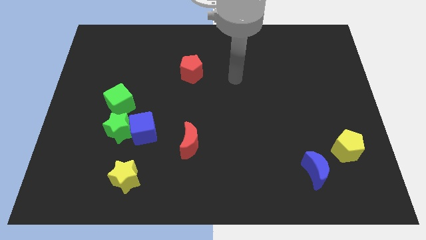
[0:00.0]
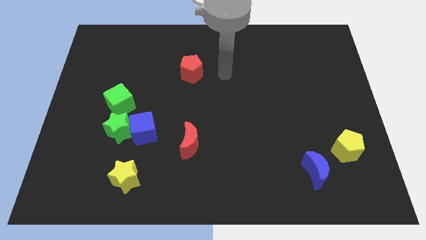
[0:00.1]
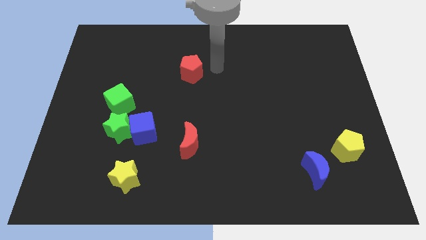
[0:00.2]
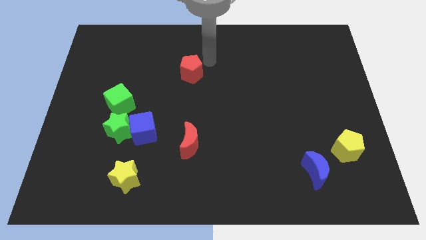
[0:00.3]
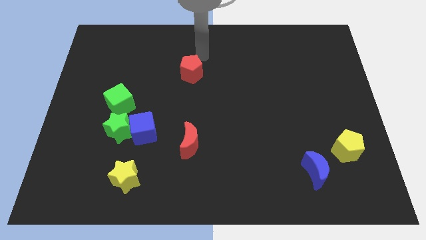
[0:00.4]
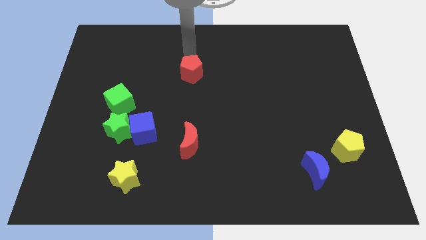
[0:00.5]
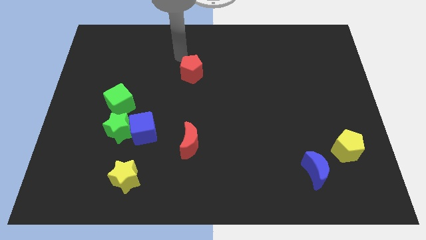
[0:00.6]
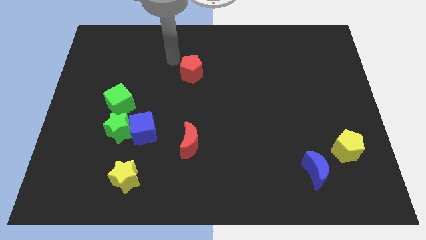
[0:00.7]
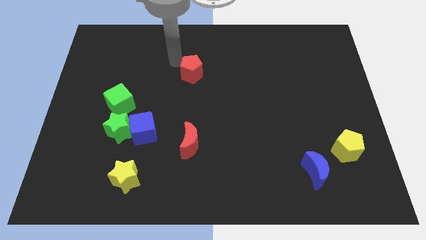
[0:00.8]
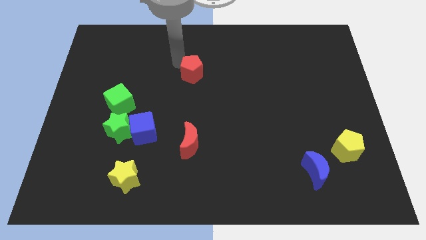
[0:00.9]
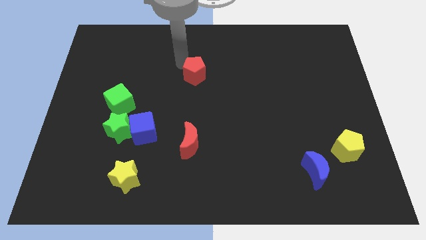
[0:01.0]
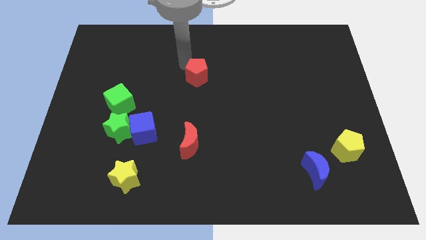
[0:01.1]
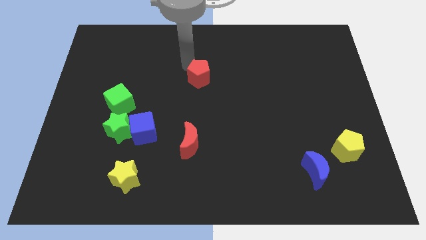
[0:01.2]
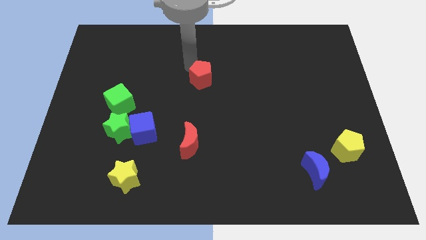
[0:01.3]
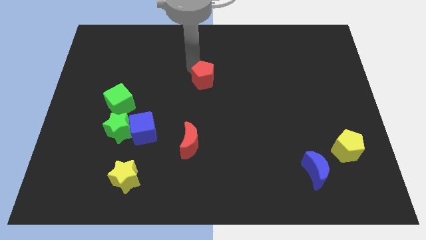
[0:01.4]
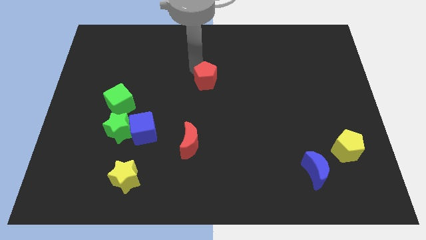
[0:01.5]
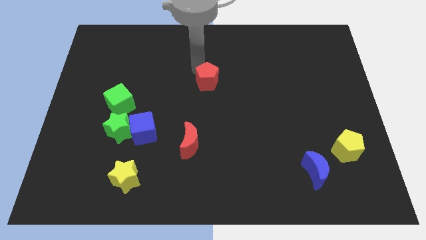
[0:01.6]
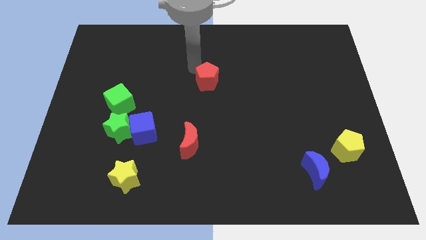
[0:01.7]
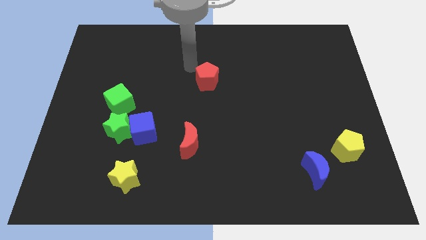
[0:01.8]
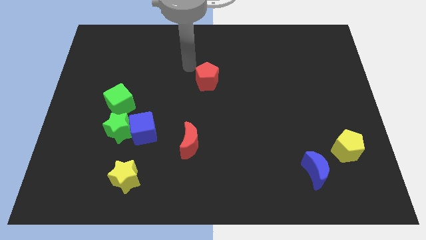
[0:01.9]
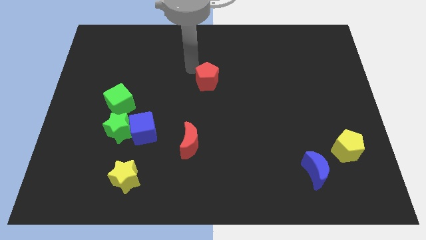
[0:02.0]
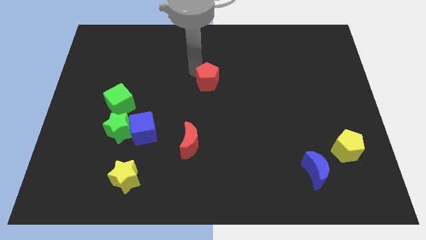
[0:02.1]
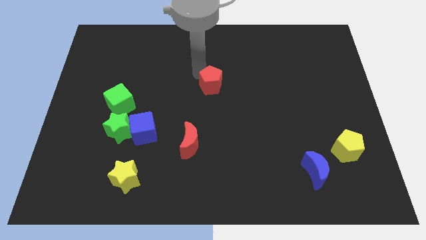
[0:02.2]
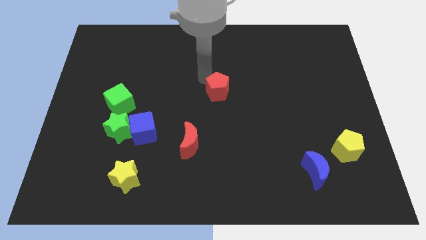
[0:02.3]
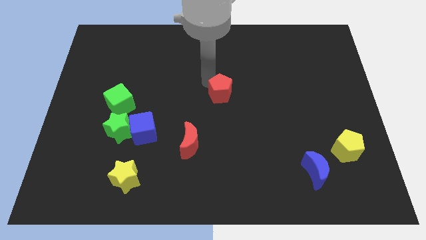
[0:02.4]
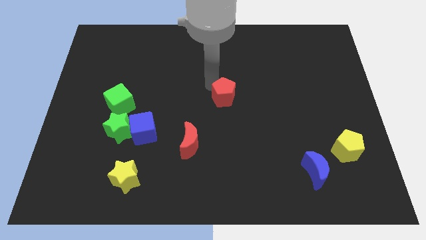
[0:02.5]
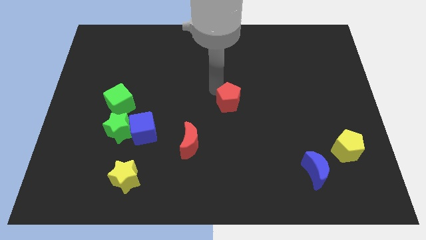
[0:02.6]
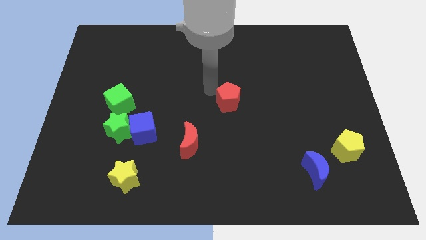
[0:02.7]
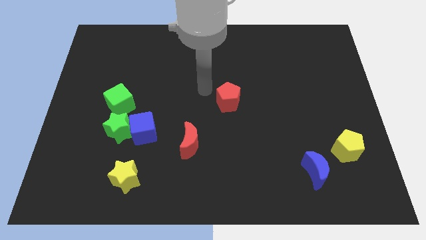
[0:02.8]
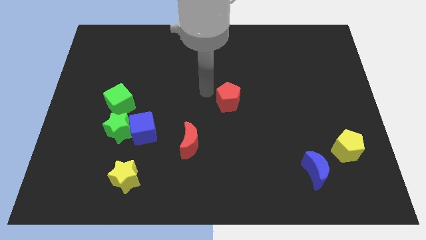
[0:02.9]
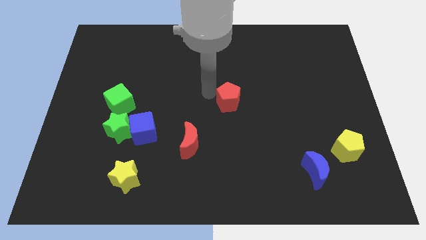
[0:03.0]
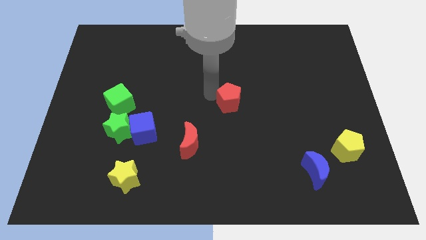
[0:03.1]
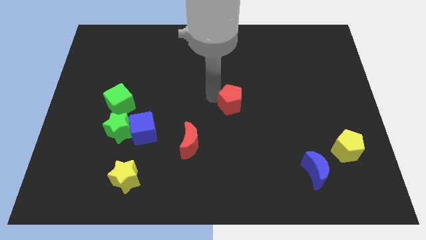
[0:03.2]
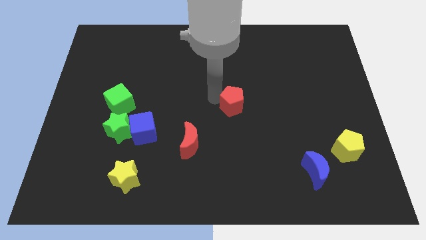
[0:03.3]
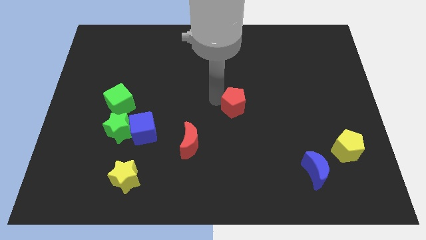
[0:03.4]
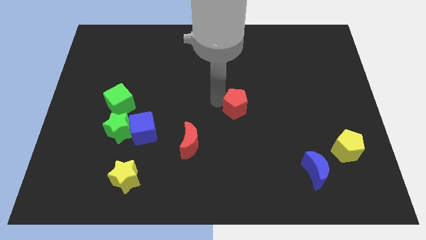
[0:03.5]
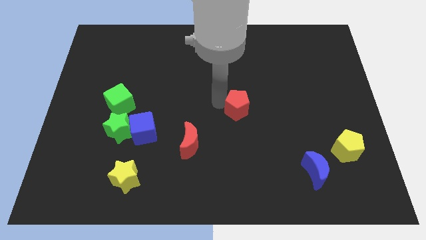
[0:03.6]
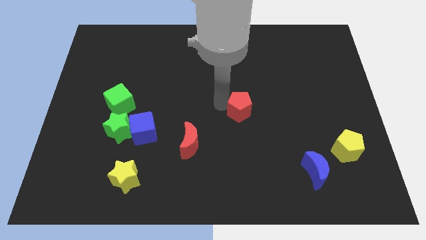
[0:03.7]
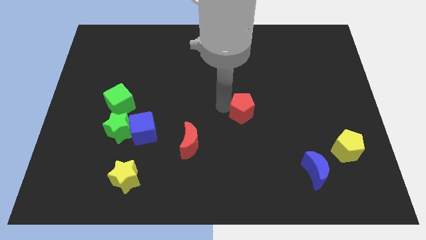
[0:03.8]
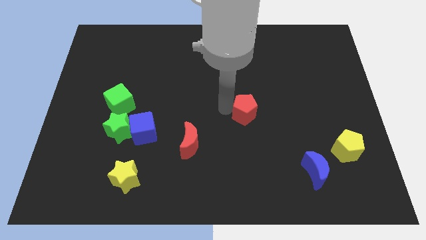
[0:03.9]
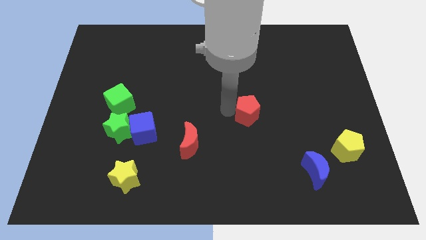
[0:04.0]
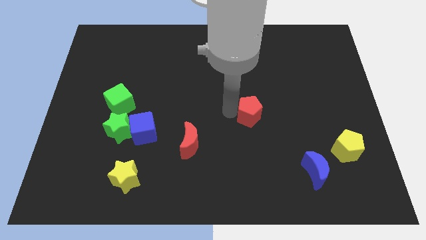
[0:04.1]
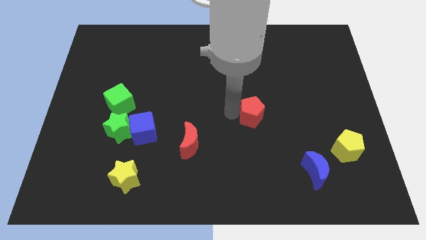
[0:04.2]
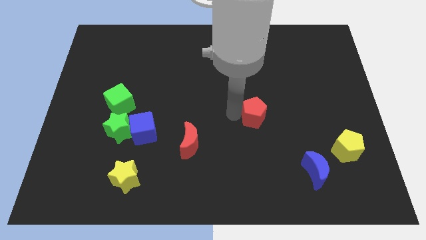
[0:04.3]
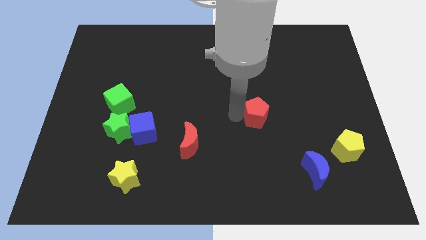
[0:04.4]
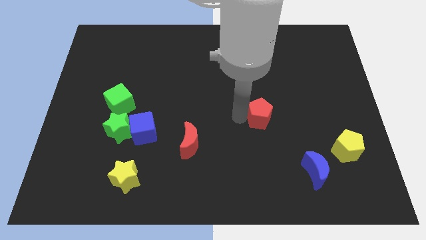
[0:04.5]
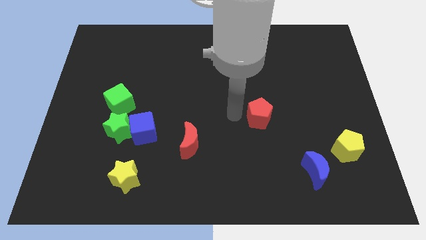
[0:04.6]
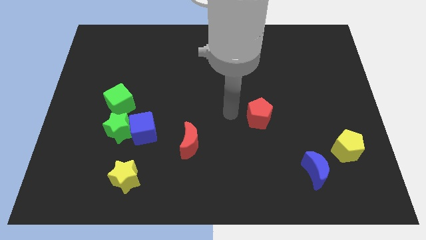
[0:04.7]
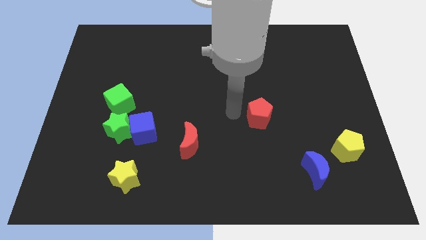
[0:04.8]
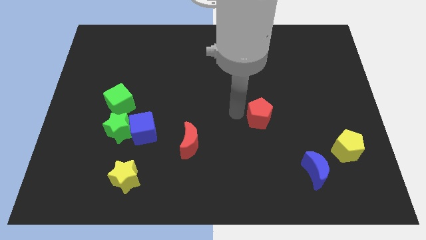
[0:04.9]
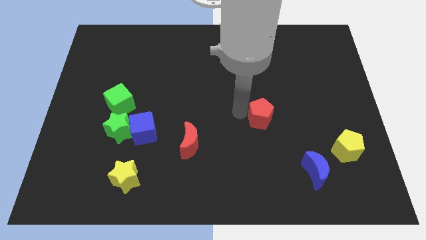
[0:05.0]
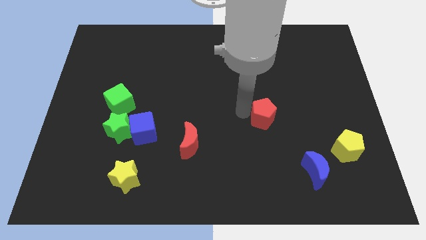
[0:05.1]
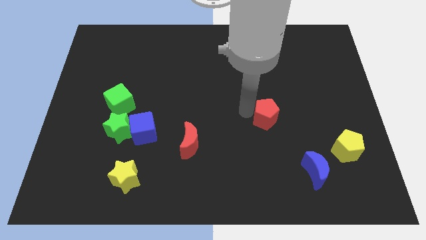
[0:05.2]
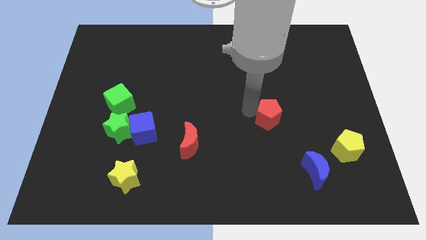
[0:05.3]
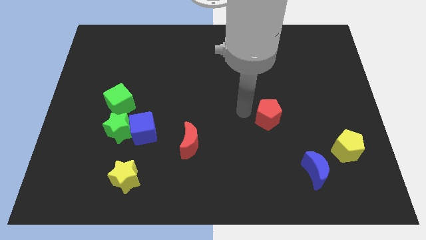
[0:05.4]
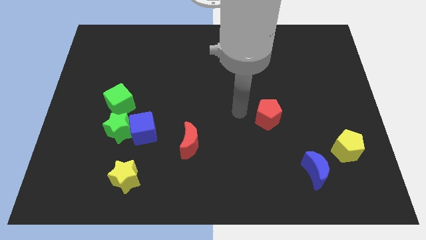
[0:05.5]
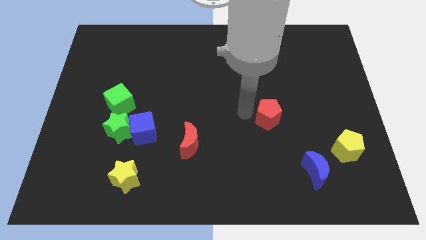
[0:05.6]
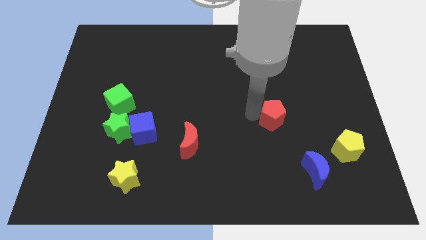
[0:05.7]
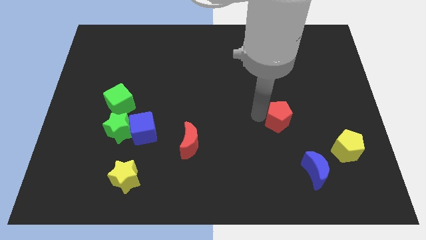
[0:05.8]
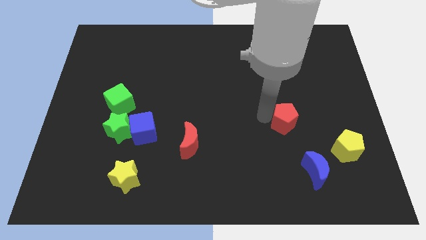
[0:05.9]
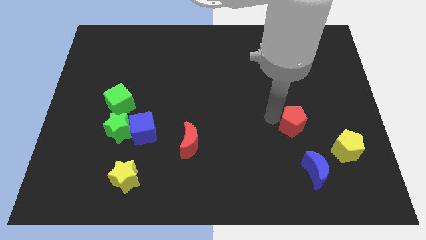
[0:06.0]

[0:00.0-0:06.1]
move the red pentagon above the blue moon
